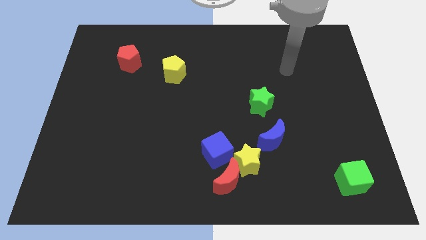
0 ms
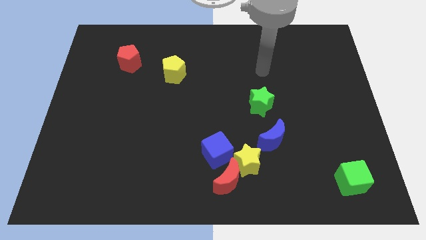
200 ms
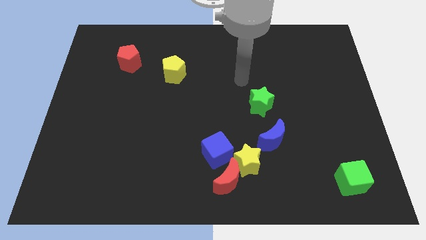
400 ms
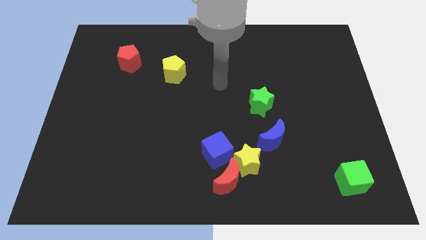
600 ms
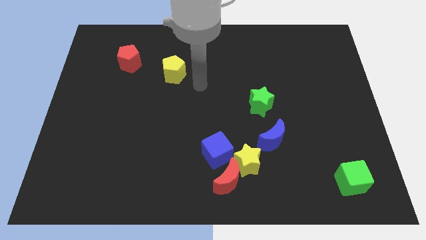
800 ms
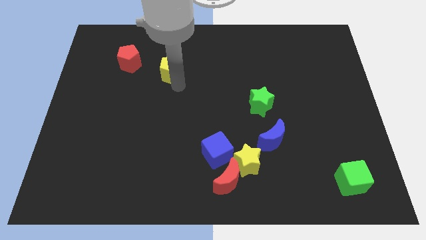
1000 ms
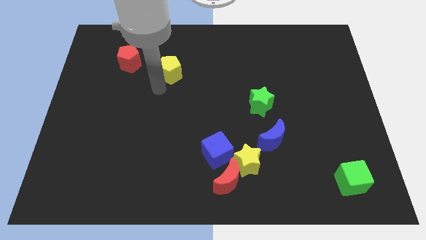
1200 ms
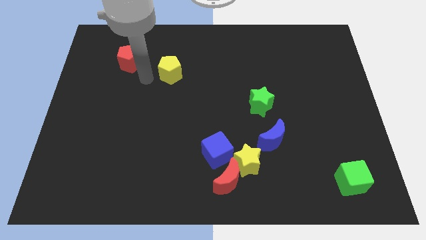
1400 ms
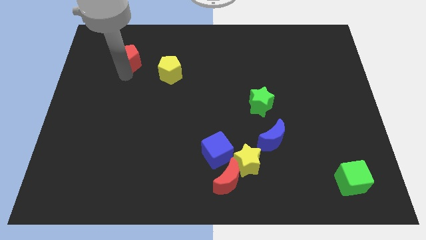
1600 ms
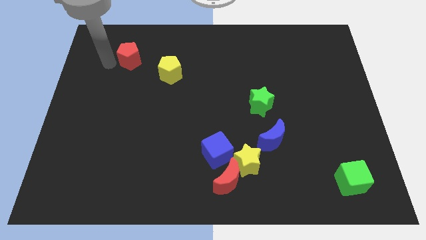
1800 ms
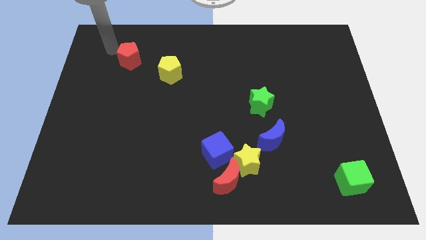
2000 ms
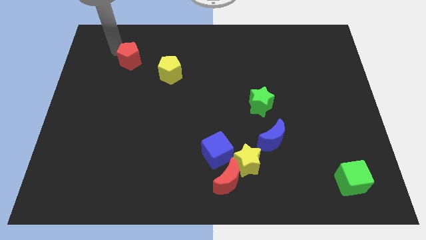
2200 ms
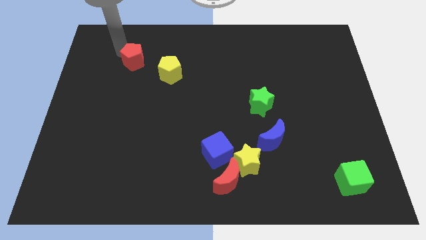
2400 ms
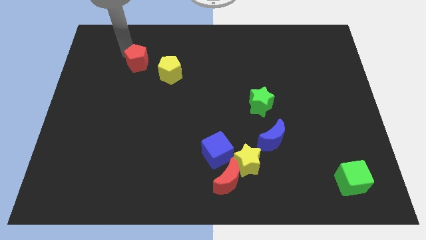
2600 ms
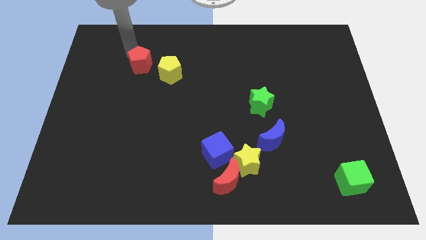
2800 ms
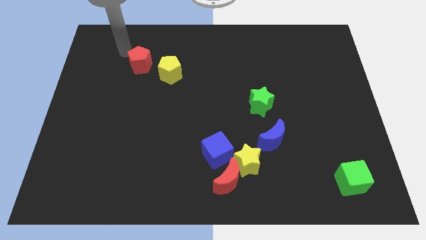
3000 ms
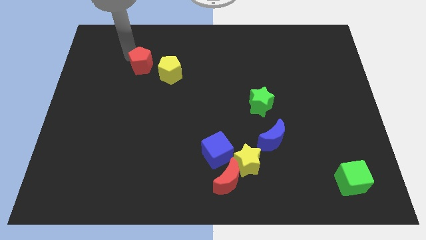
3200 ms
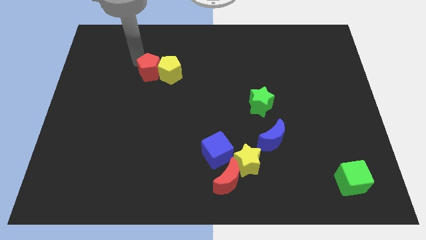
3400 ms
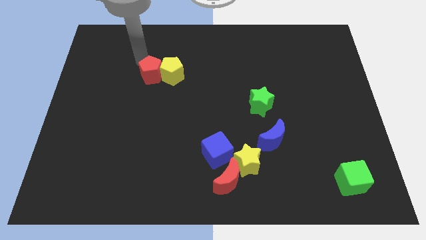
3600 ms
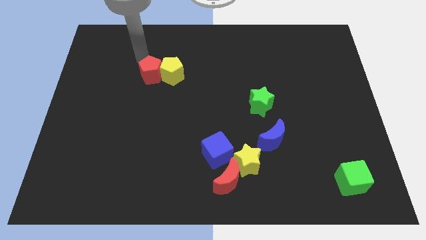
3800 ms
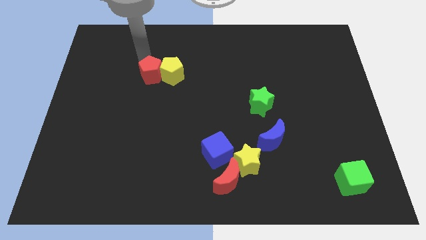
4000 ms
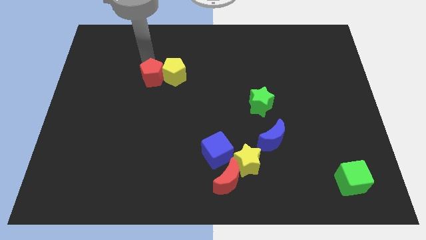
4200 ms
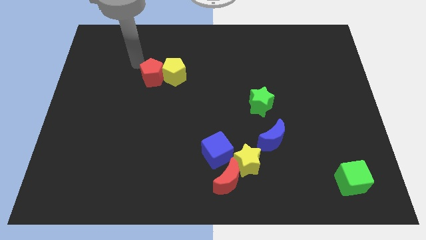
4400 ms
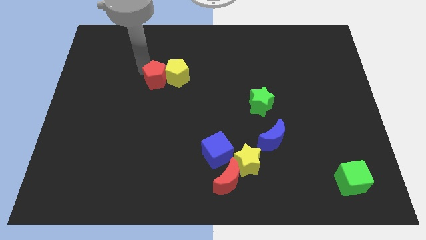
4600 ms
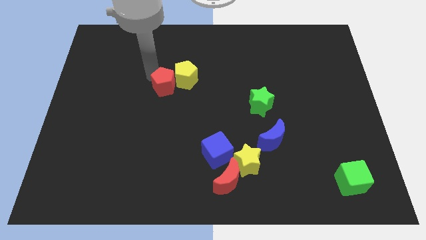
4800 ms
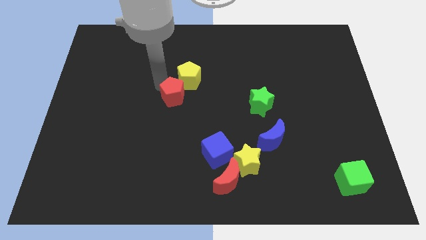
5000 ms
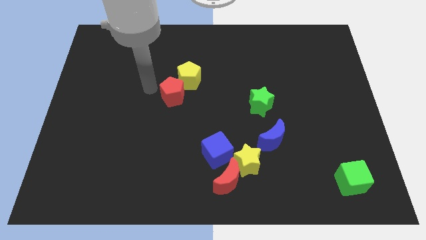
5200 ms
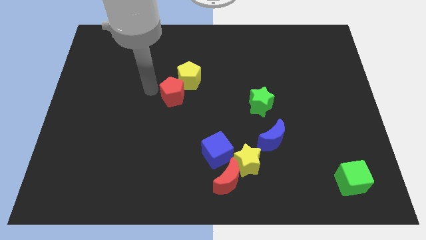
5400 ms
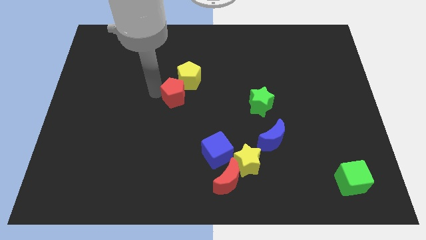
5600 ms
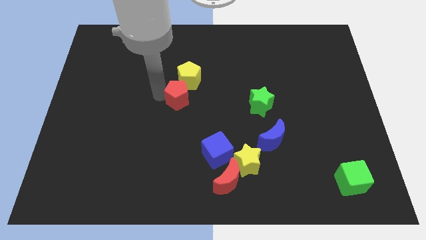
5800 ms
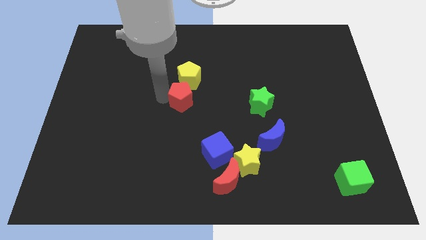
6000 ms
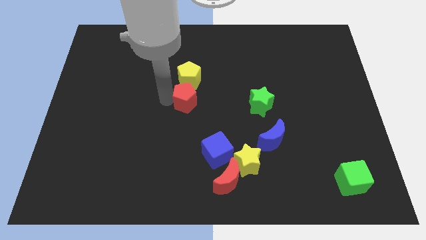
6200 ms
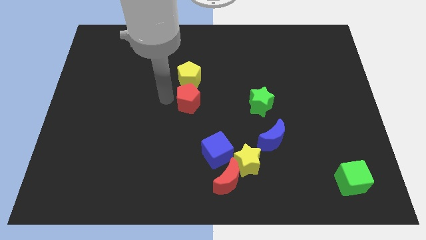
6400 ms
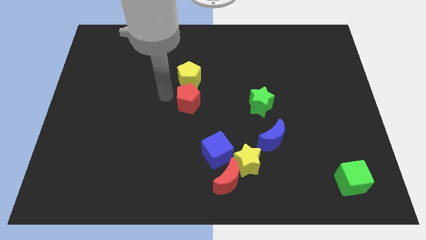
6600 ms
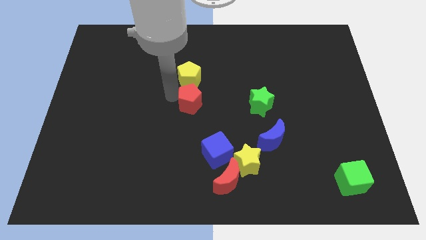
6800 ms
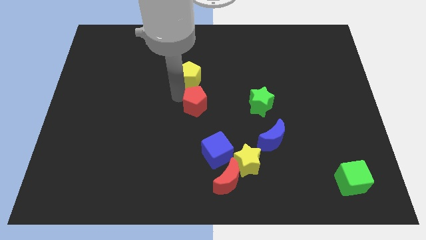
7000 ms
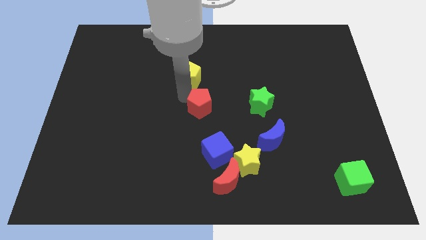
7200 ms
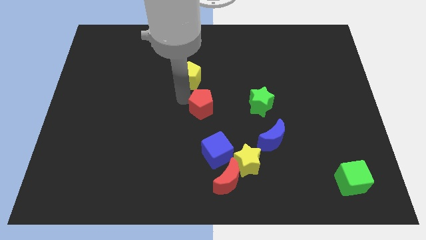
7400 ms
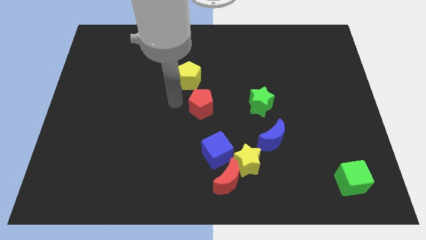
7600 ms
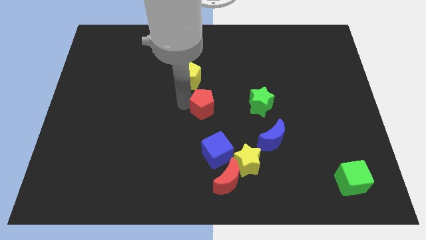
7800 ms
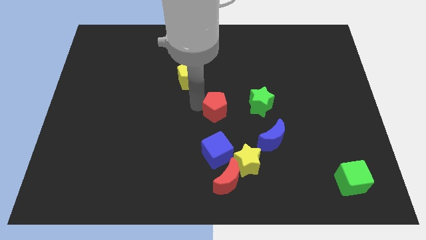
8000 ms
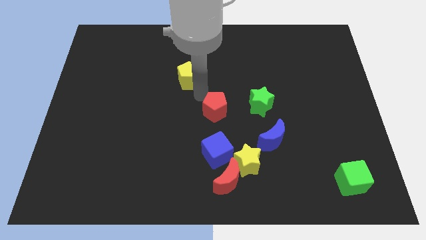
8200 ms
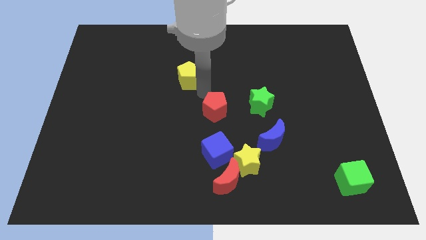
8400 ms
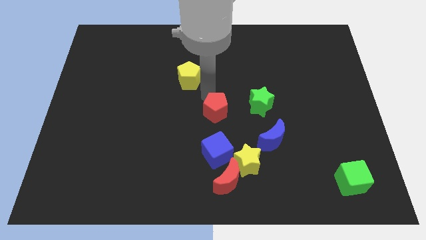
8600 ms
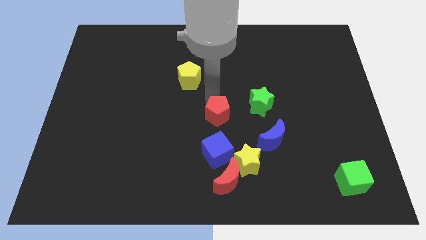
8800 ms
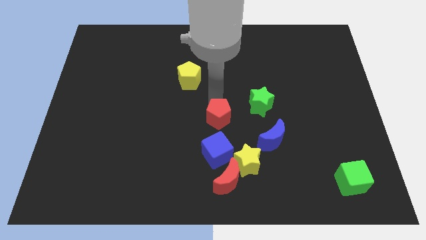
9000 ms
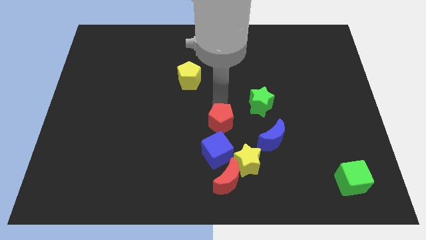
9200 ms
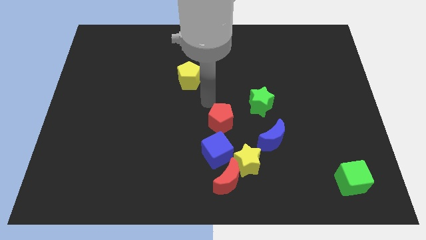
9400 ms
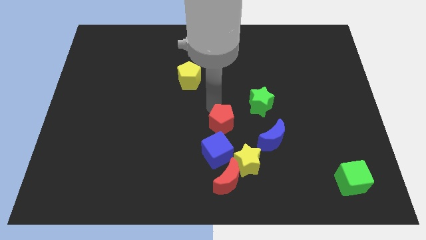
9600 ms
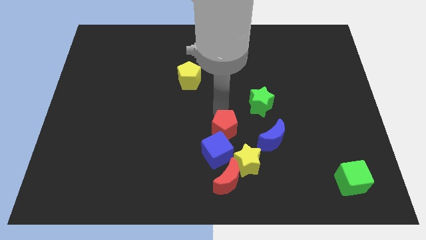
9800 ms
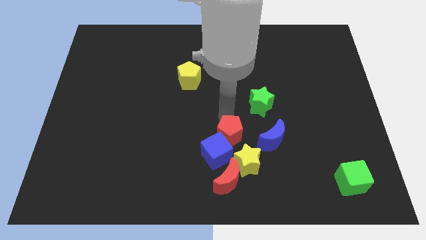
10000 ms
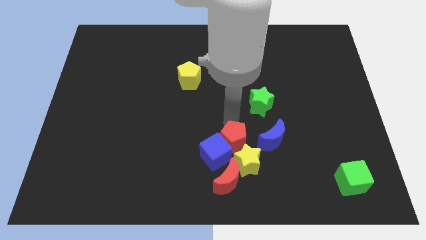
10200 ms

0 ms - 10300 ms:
put the red pentagon to the yellow star
